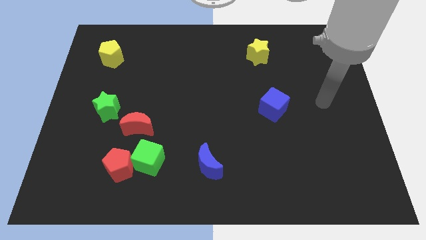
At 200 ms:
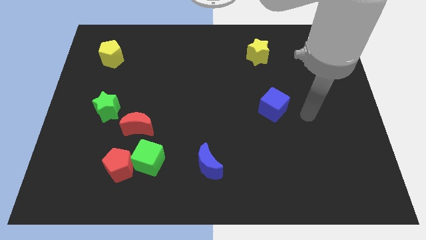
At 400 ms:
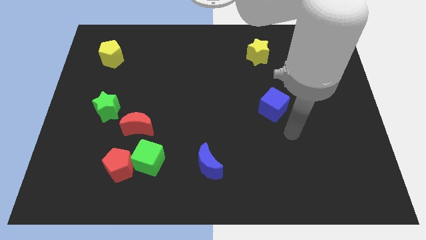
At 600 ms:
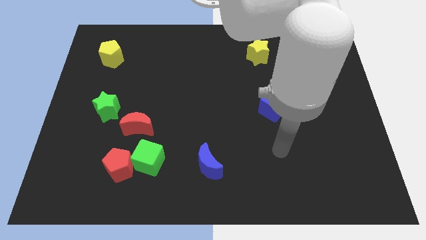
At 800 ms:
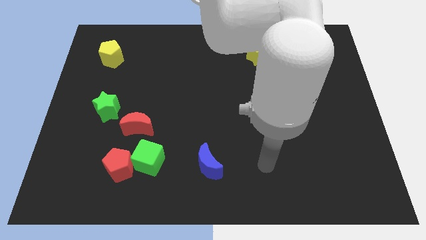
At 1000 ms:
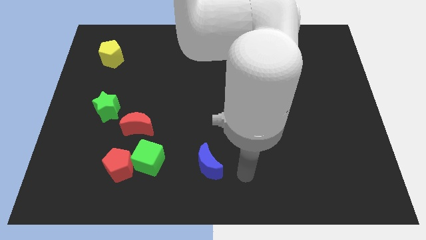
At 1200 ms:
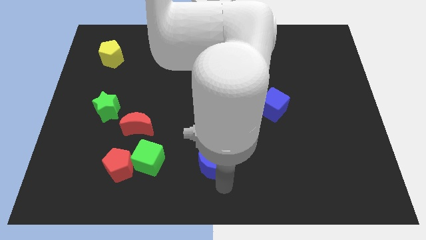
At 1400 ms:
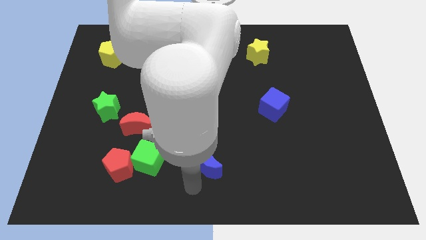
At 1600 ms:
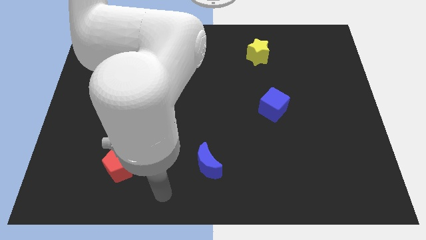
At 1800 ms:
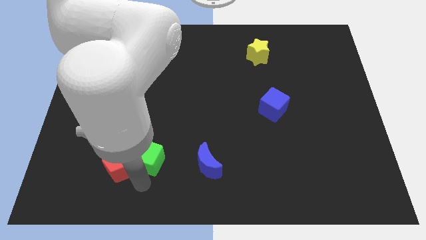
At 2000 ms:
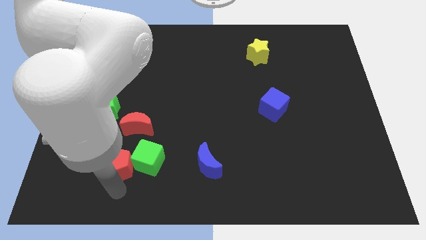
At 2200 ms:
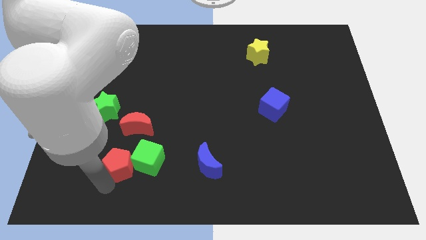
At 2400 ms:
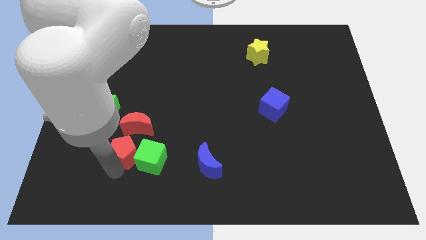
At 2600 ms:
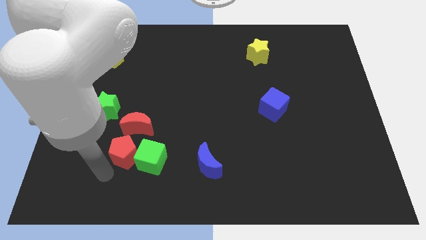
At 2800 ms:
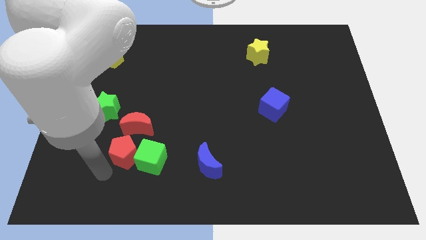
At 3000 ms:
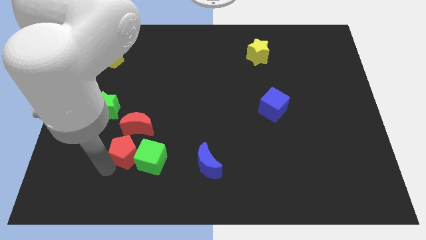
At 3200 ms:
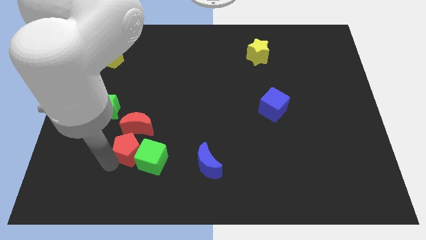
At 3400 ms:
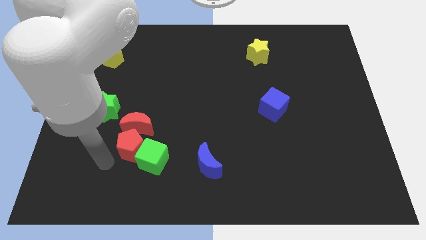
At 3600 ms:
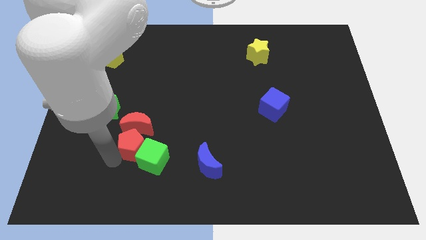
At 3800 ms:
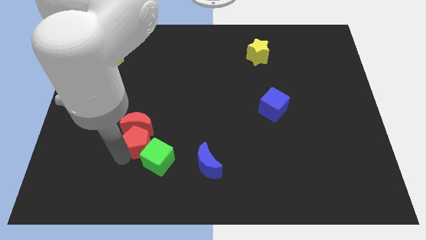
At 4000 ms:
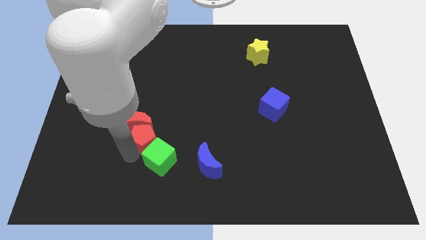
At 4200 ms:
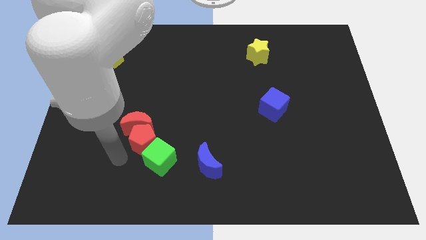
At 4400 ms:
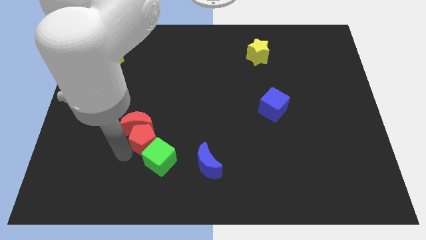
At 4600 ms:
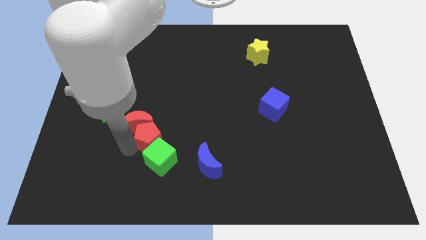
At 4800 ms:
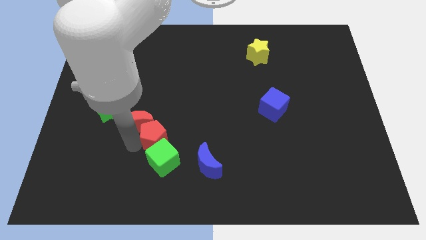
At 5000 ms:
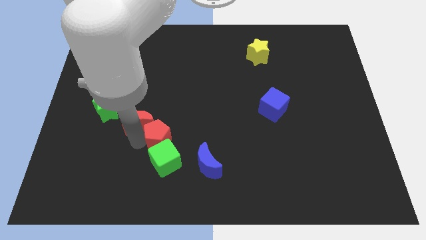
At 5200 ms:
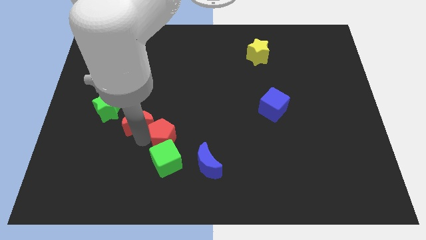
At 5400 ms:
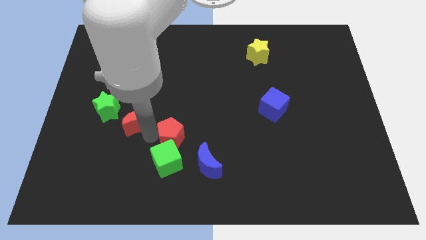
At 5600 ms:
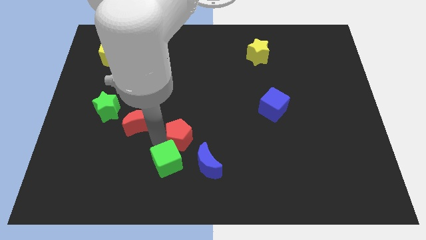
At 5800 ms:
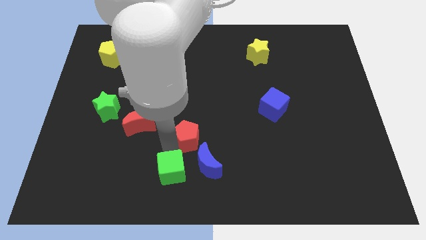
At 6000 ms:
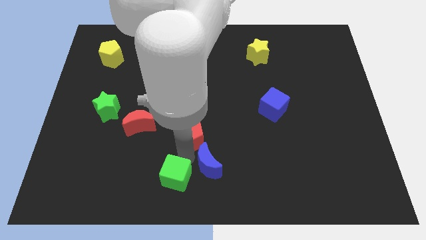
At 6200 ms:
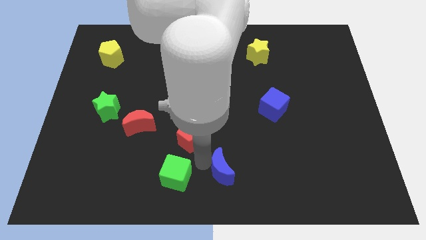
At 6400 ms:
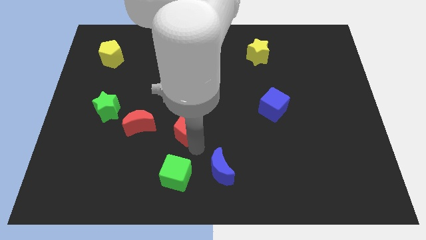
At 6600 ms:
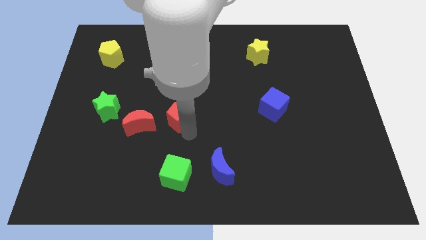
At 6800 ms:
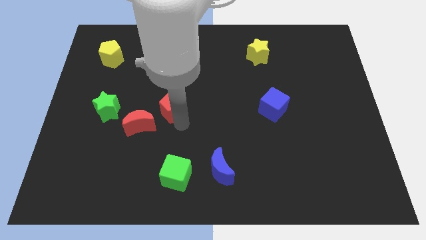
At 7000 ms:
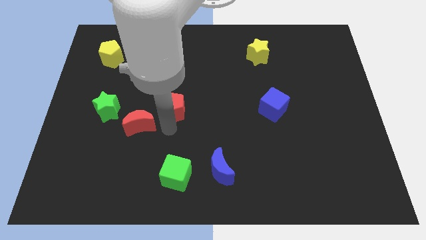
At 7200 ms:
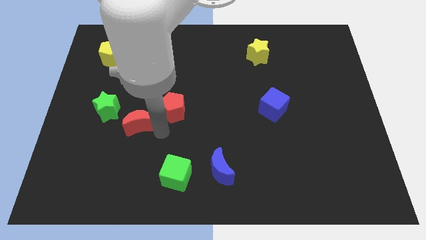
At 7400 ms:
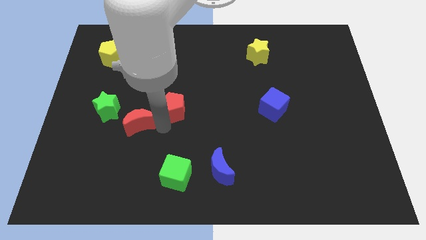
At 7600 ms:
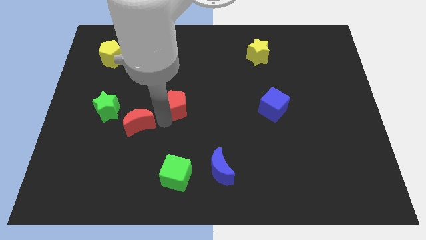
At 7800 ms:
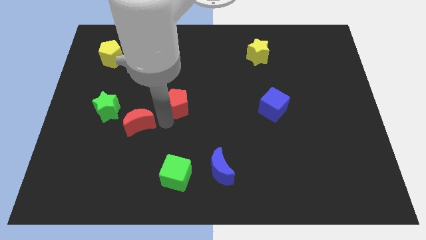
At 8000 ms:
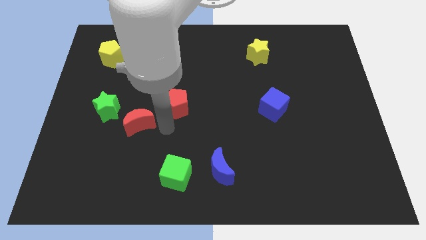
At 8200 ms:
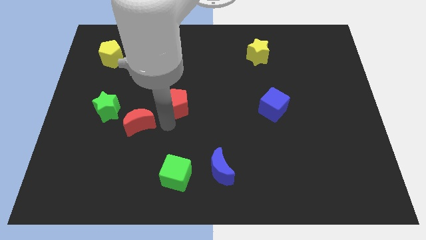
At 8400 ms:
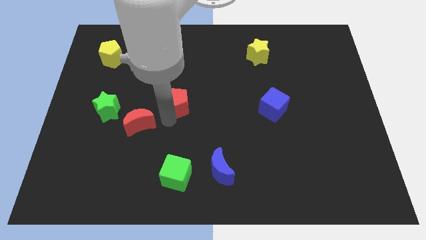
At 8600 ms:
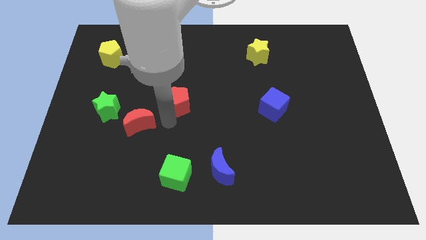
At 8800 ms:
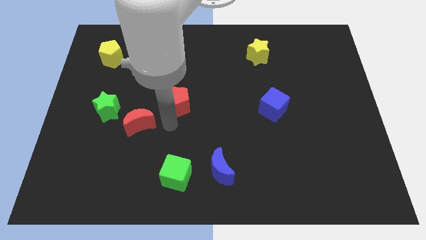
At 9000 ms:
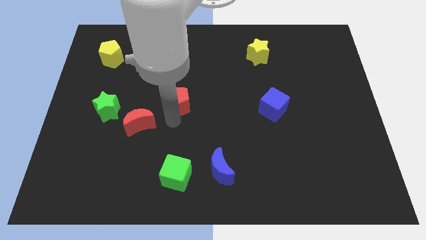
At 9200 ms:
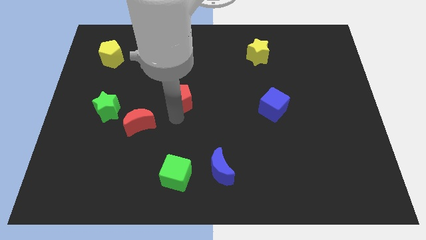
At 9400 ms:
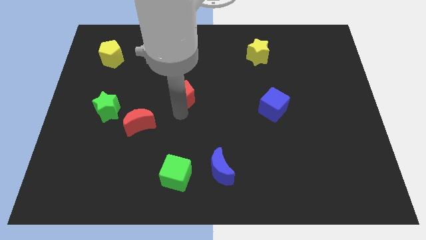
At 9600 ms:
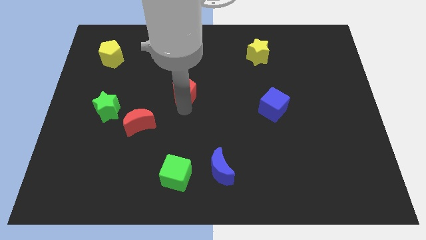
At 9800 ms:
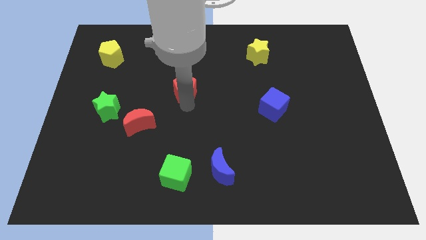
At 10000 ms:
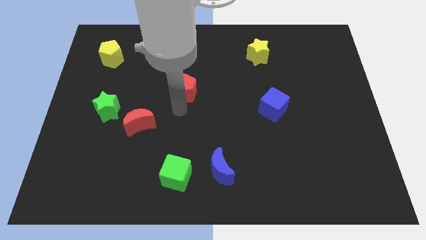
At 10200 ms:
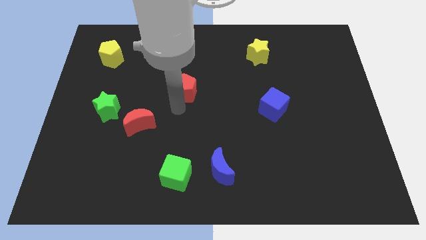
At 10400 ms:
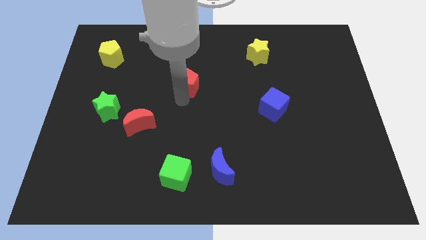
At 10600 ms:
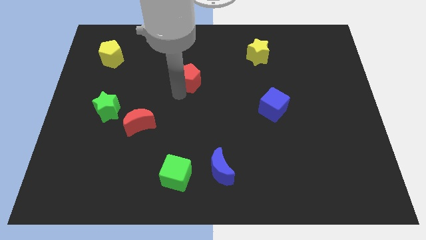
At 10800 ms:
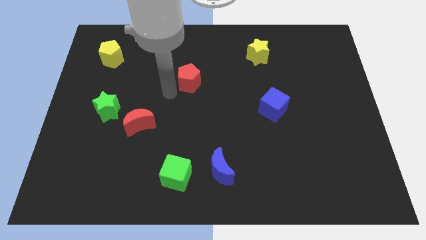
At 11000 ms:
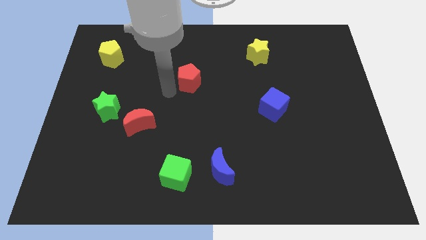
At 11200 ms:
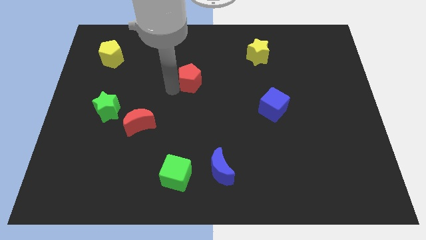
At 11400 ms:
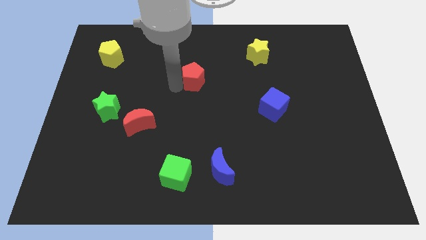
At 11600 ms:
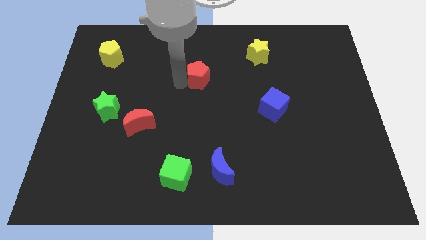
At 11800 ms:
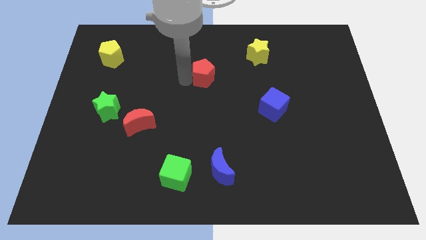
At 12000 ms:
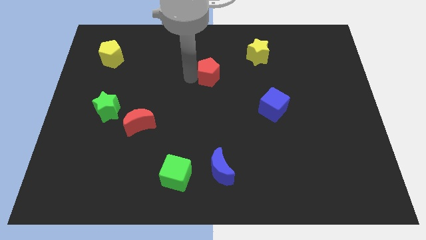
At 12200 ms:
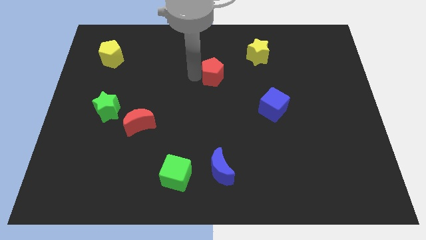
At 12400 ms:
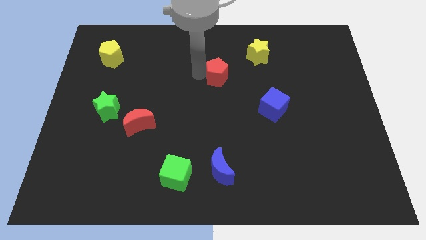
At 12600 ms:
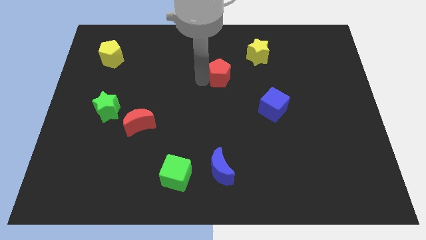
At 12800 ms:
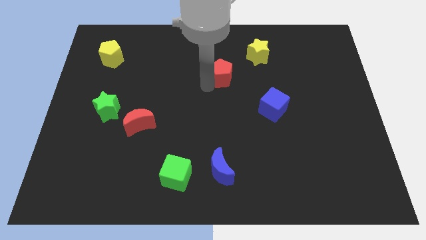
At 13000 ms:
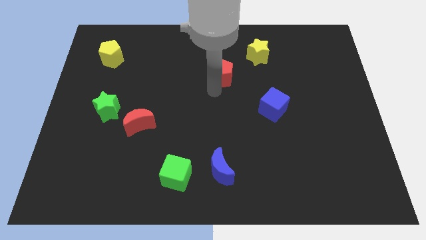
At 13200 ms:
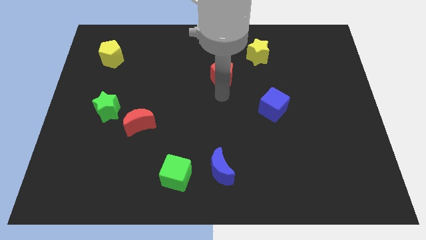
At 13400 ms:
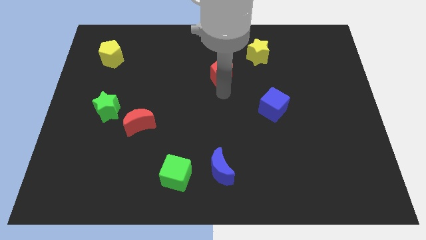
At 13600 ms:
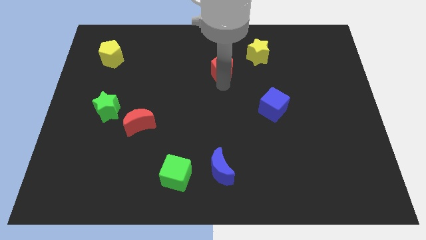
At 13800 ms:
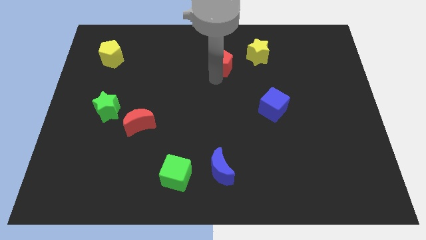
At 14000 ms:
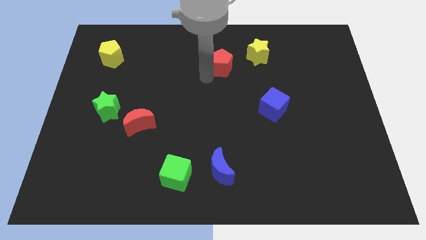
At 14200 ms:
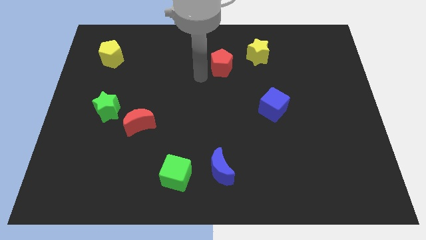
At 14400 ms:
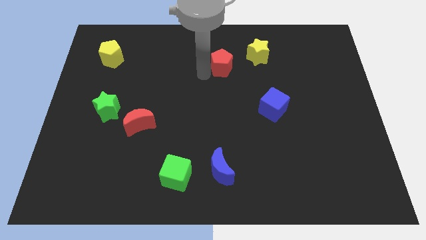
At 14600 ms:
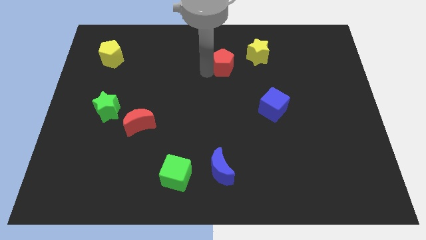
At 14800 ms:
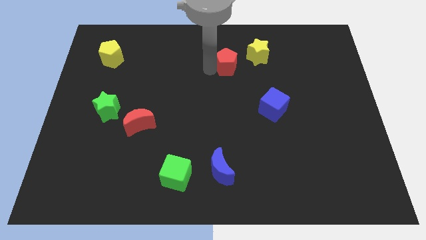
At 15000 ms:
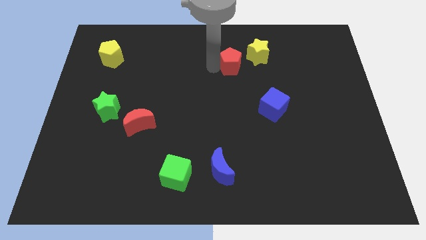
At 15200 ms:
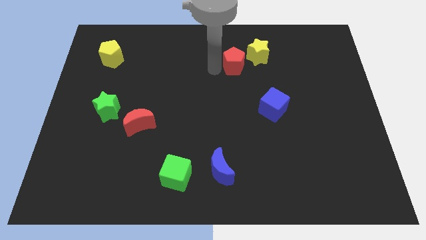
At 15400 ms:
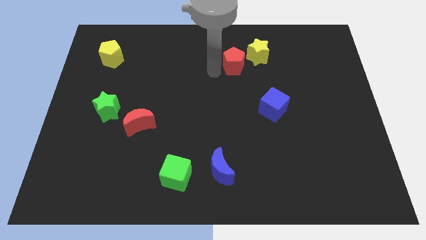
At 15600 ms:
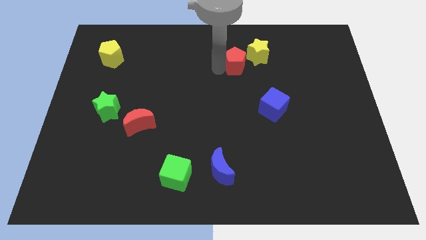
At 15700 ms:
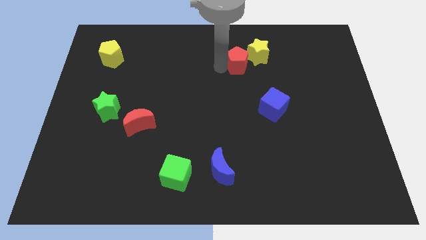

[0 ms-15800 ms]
slide the red pentagon towards the yellow star
